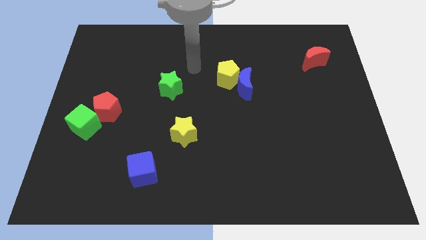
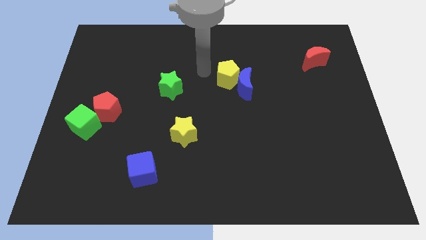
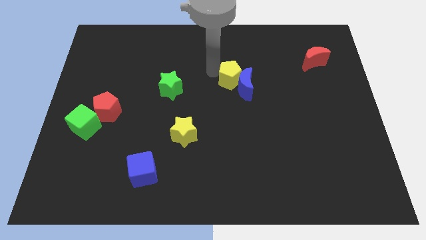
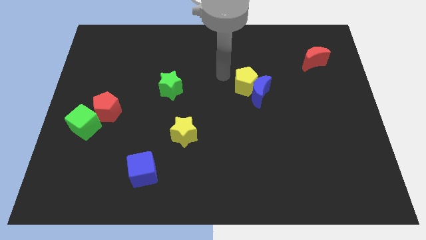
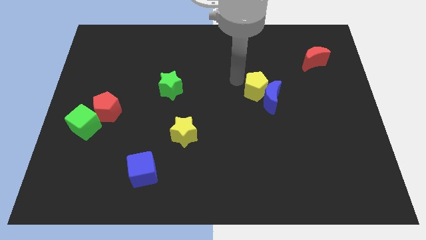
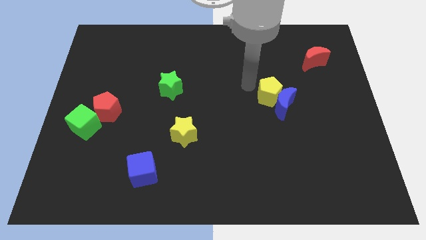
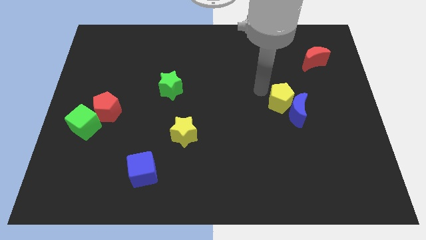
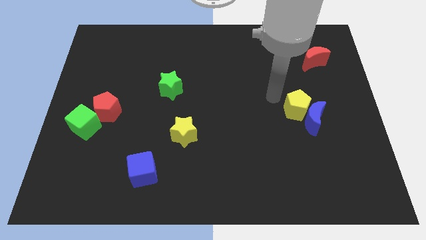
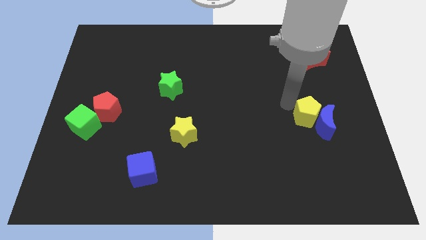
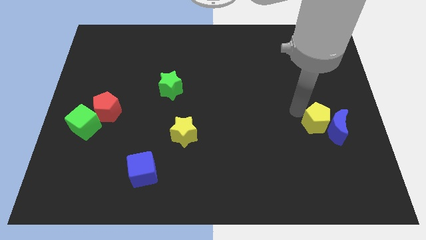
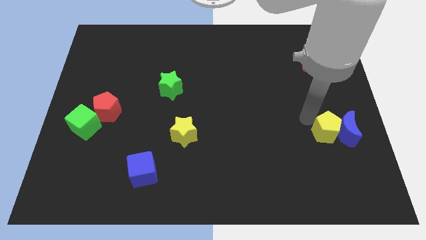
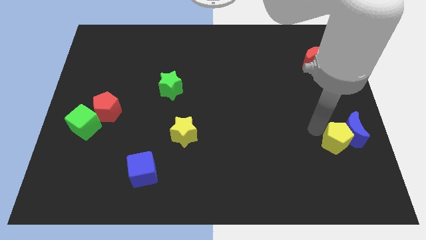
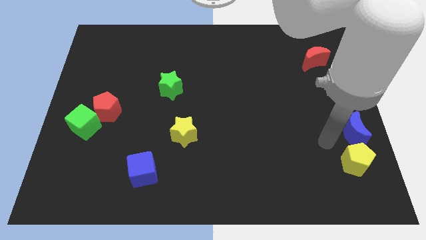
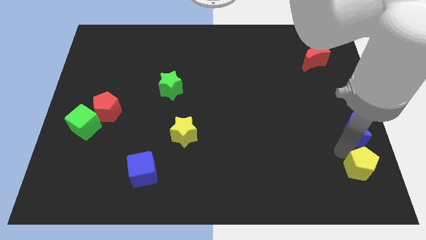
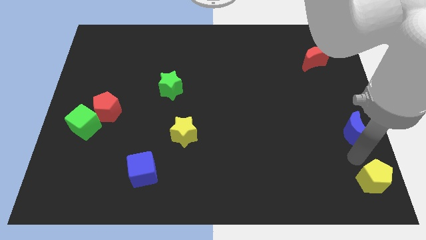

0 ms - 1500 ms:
separate the blue moon from the yellow pentagon

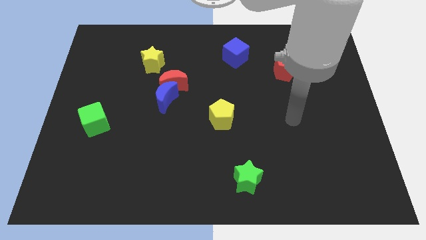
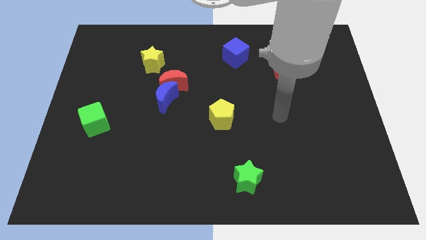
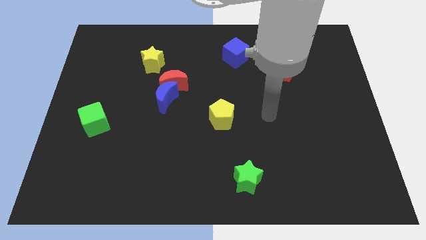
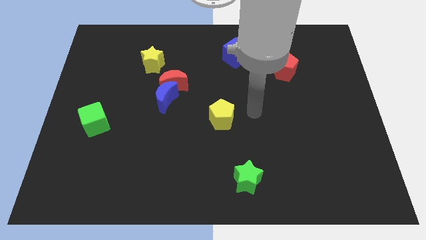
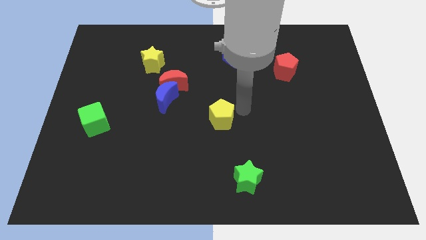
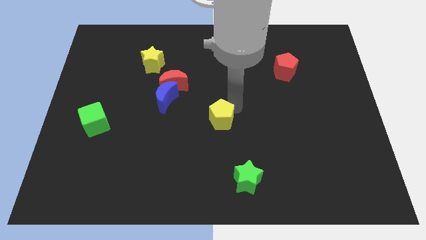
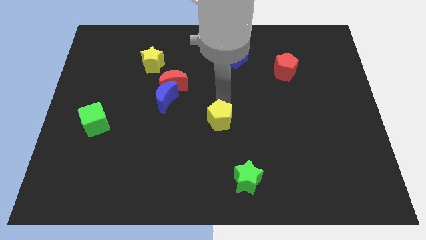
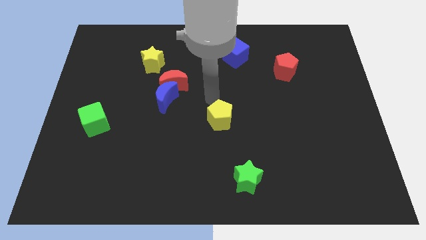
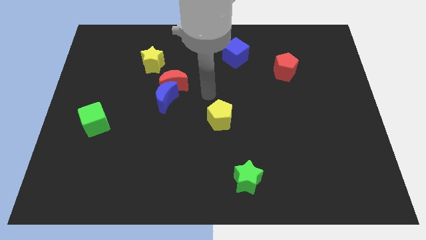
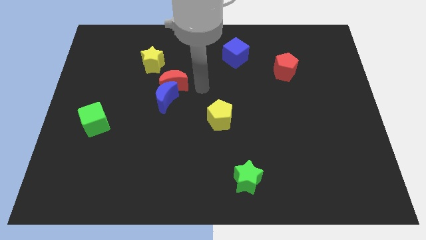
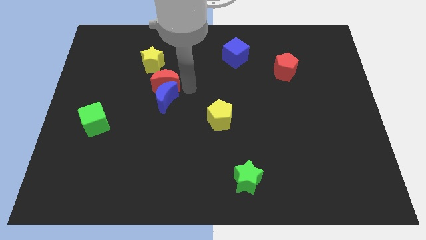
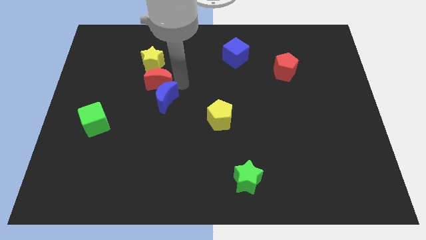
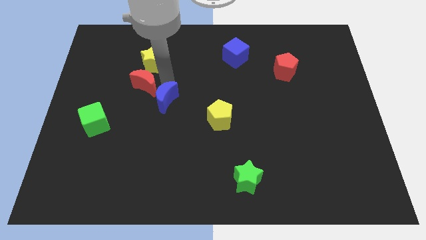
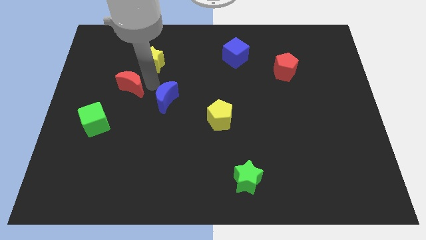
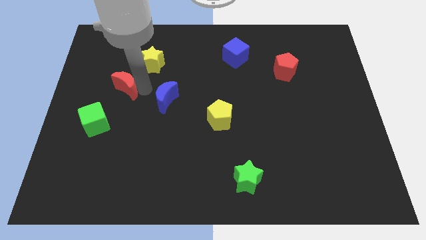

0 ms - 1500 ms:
separate the blue moon from the red moon

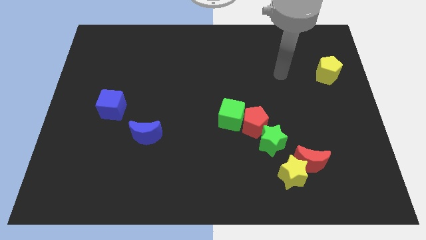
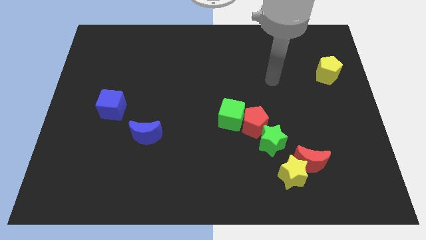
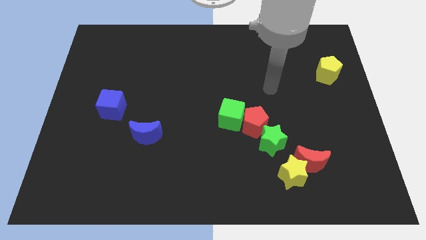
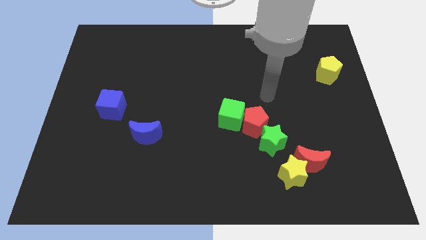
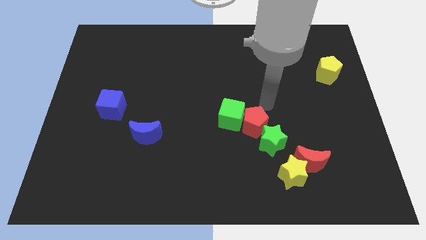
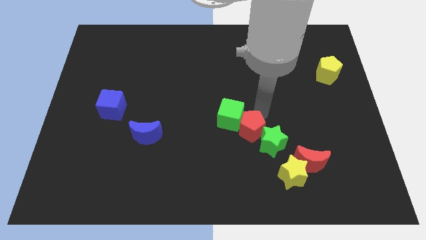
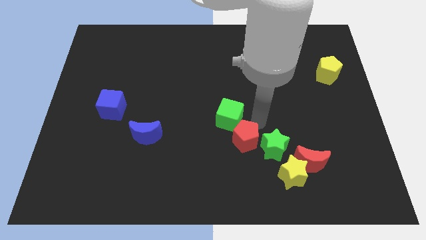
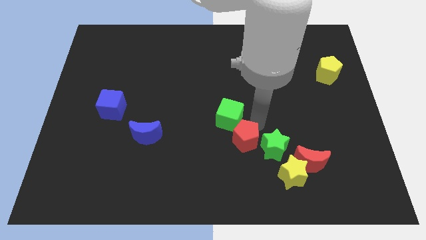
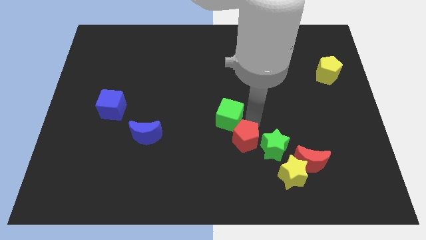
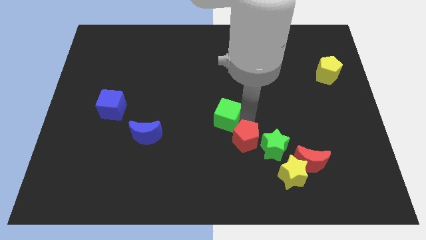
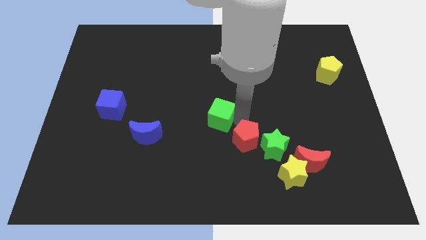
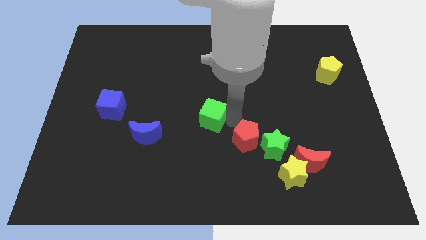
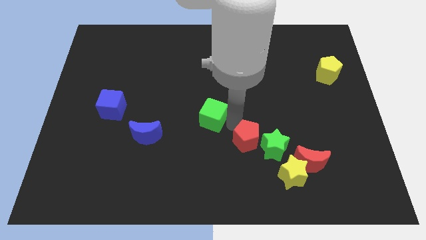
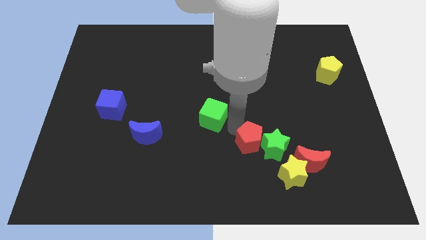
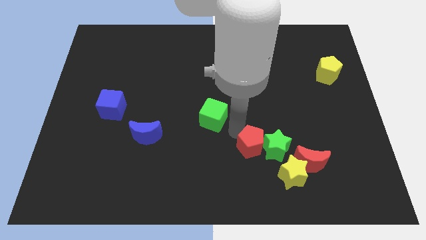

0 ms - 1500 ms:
move the green cube away from the red pentagon

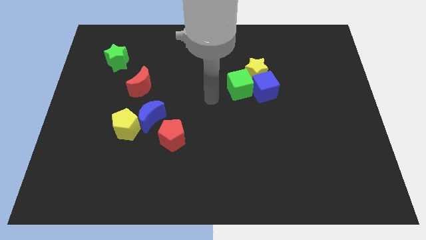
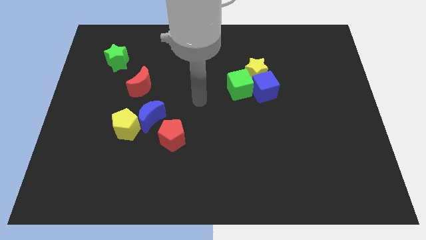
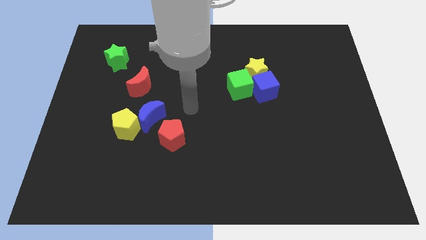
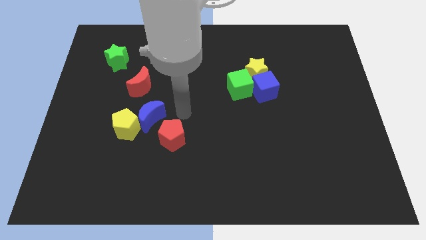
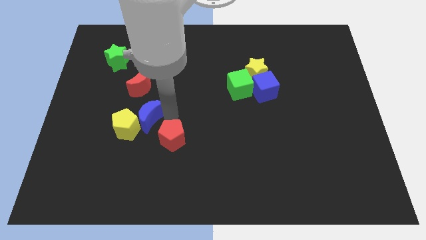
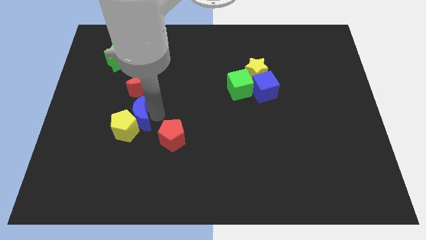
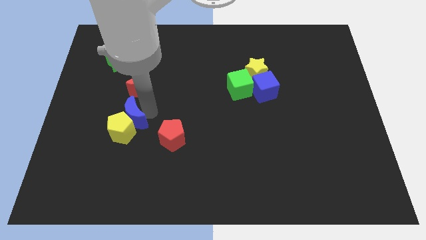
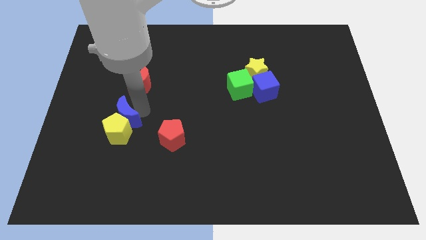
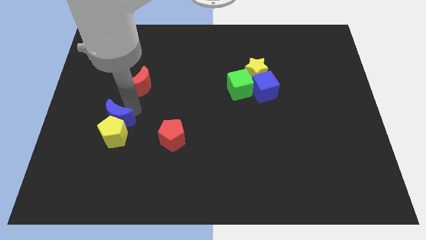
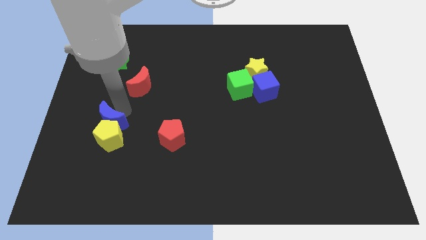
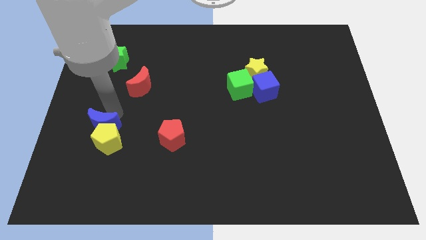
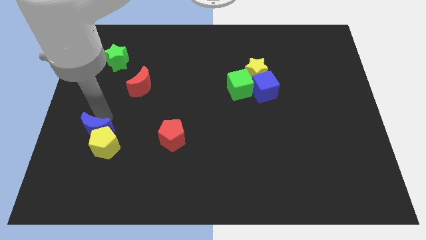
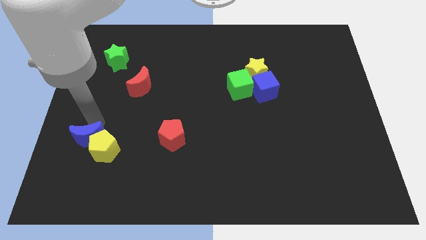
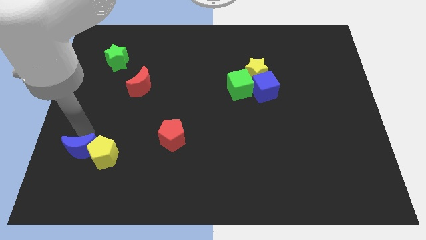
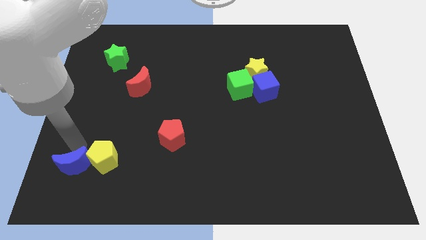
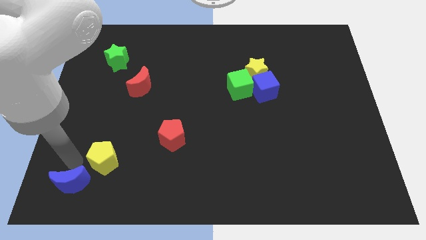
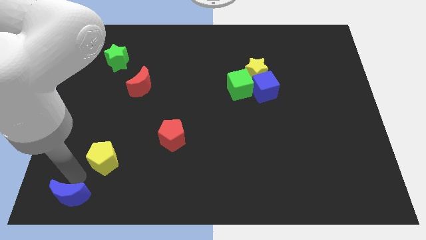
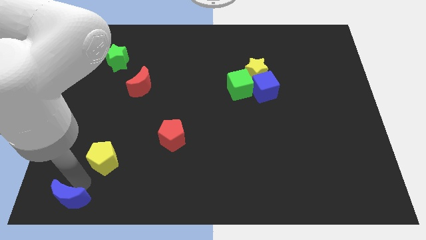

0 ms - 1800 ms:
move the yellow pentagon away from the blue moon

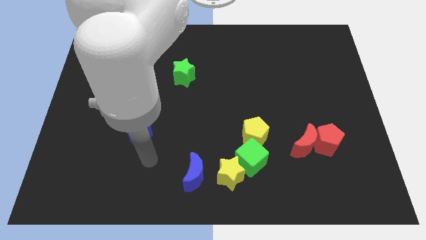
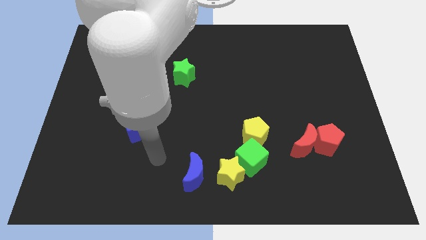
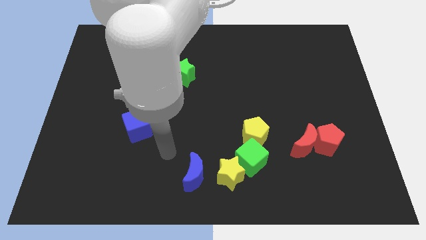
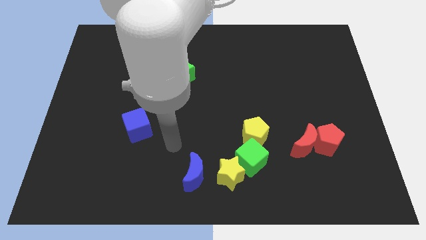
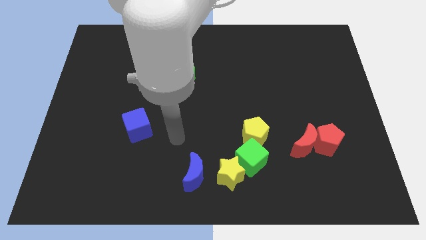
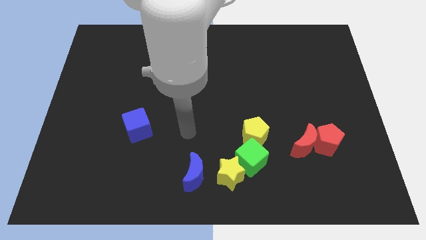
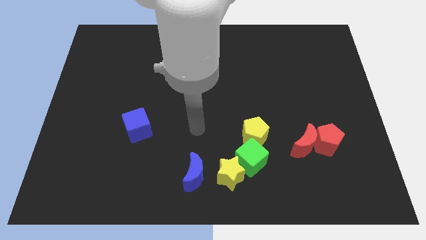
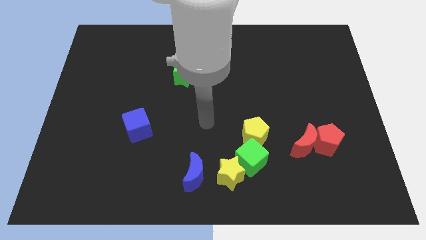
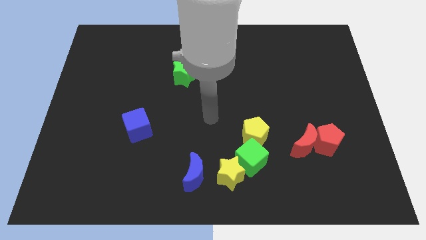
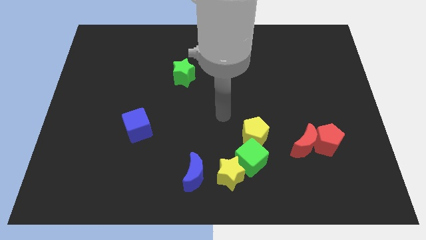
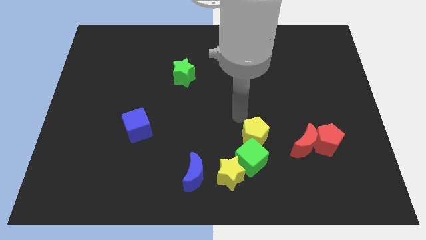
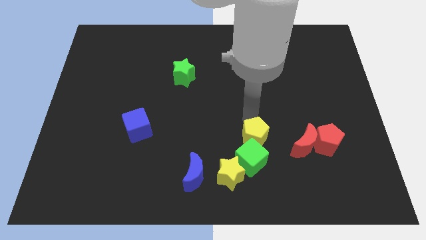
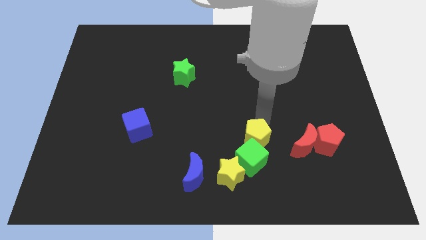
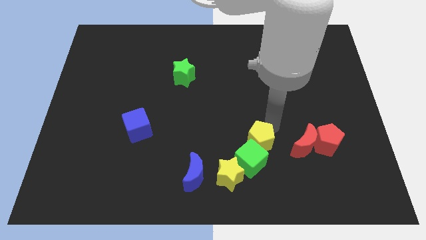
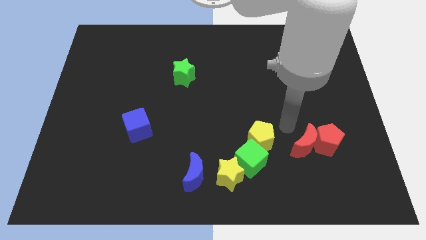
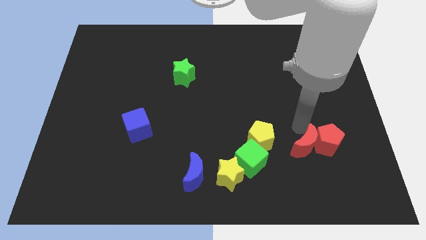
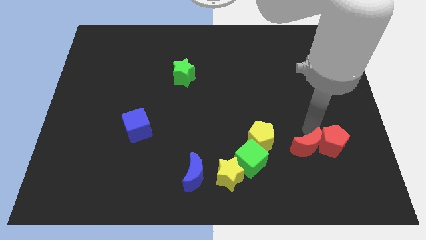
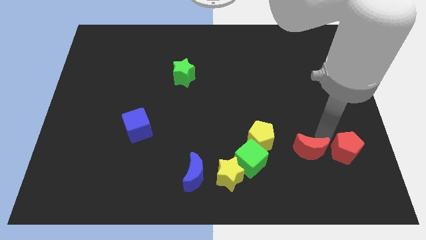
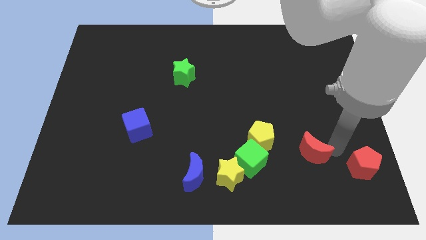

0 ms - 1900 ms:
separate the red moon from the red pentagon

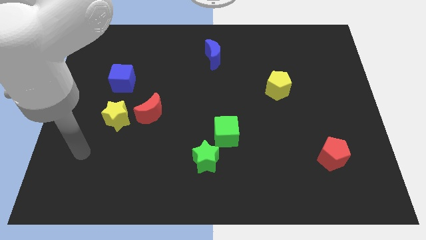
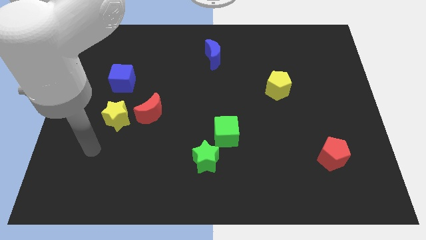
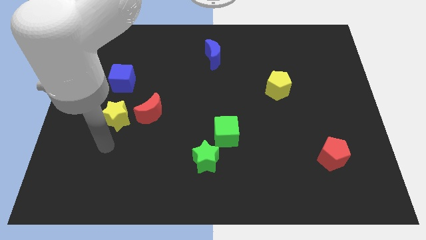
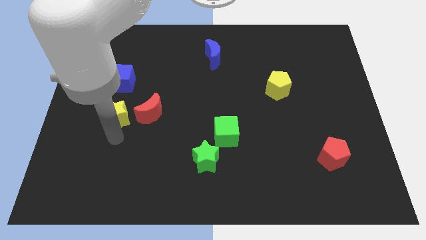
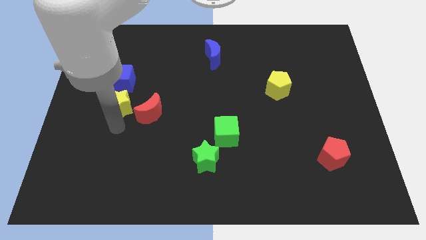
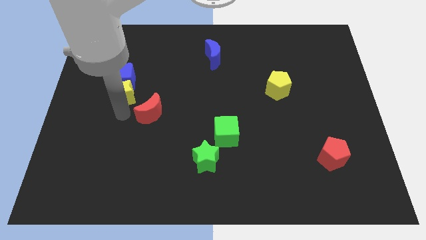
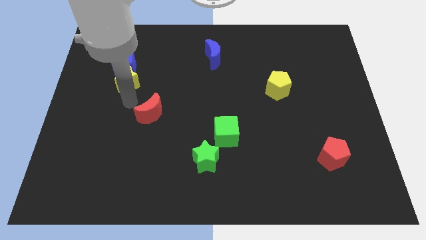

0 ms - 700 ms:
pull the red moon apart from the yellow star

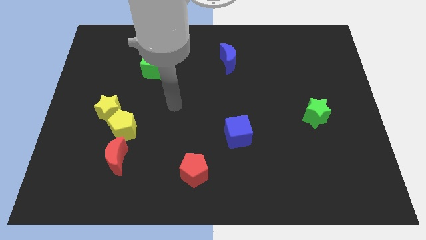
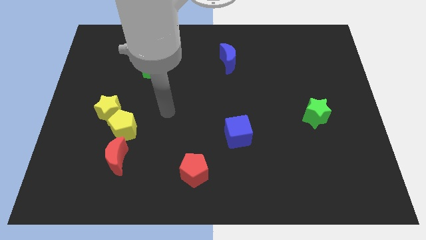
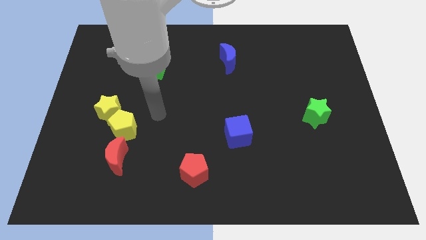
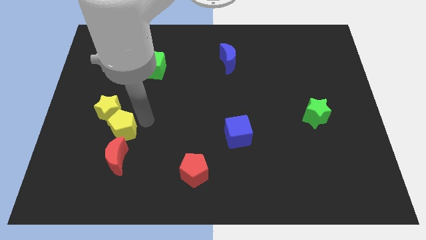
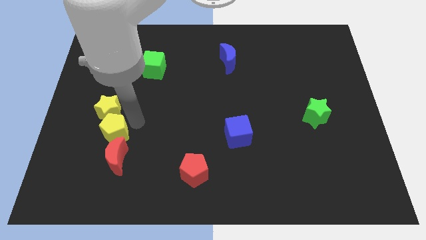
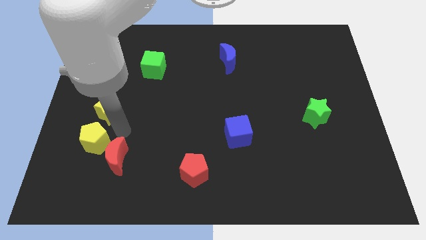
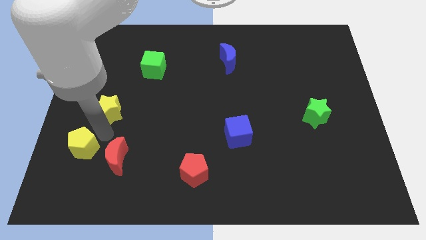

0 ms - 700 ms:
separate the yellow star from the yellow pentagon
